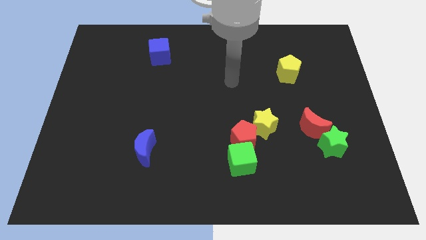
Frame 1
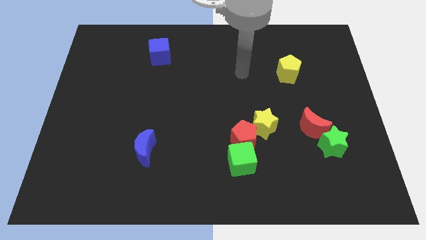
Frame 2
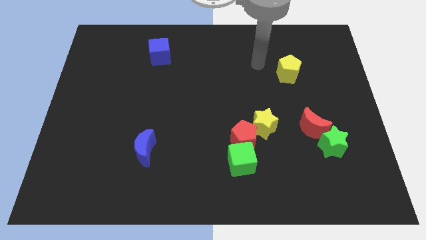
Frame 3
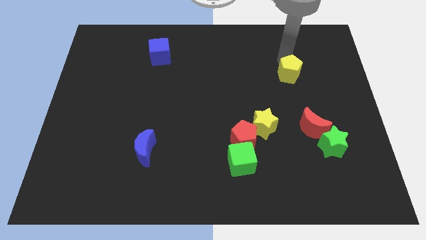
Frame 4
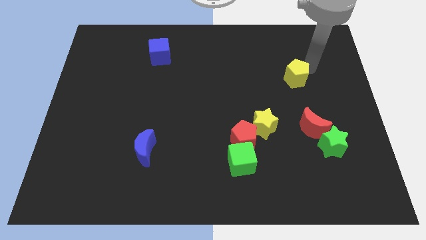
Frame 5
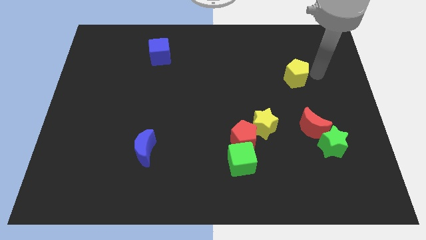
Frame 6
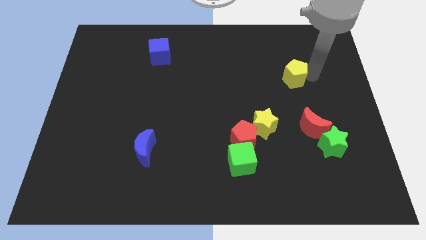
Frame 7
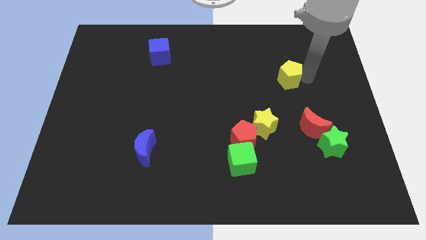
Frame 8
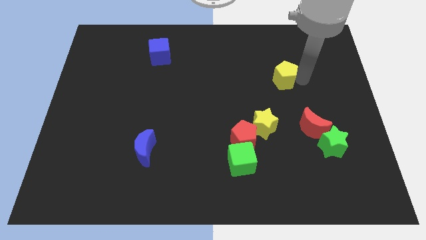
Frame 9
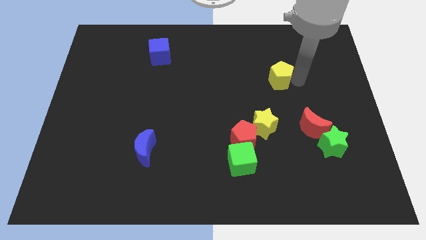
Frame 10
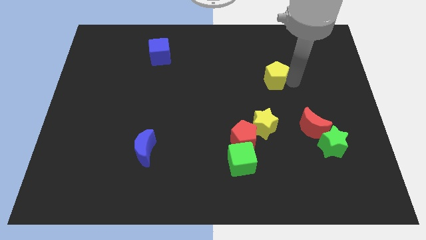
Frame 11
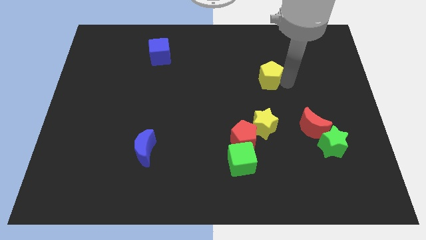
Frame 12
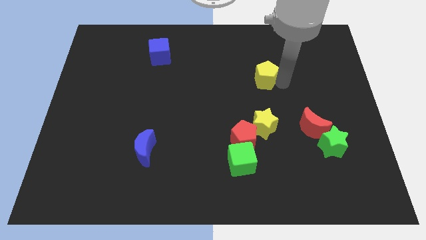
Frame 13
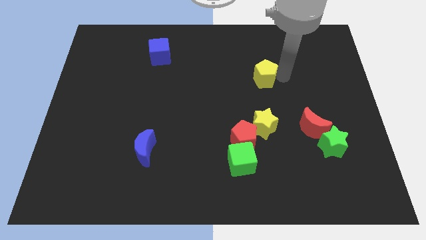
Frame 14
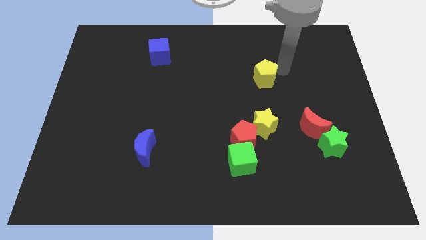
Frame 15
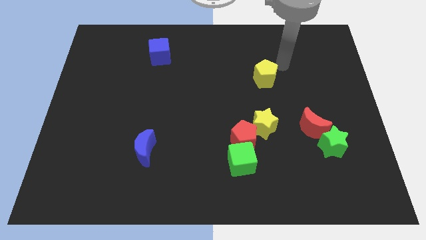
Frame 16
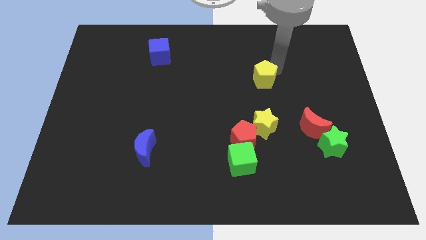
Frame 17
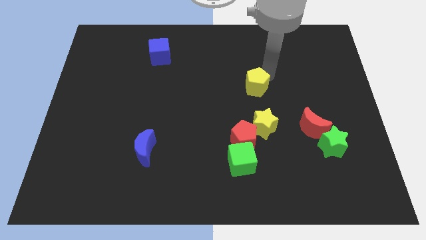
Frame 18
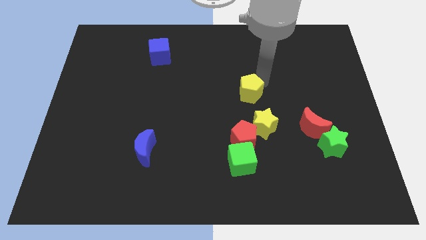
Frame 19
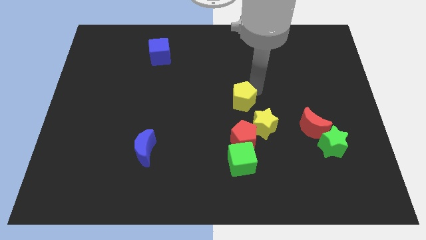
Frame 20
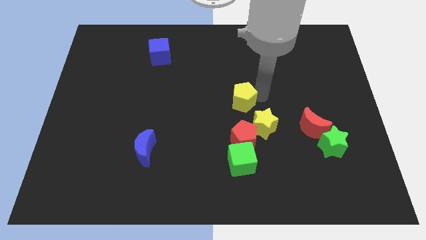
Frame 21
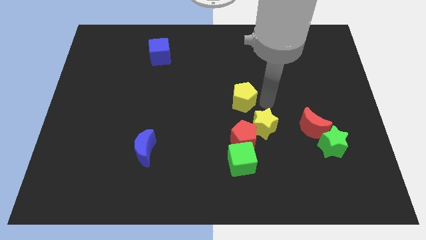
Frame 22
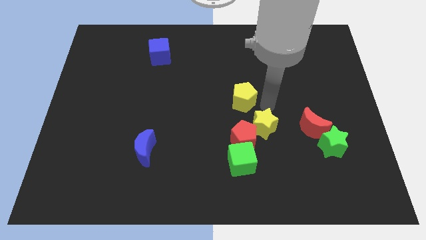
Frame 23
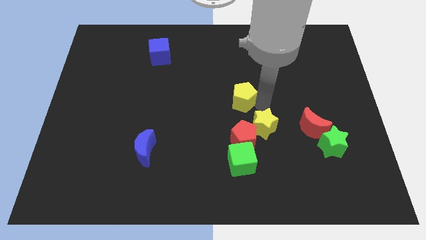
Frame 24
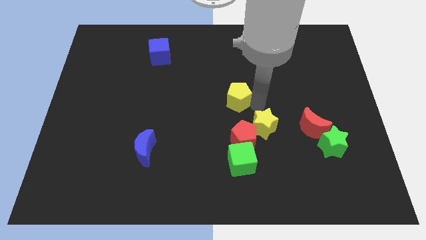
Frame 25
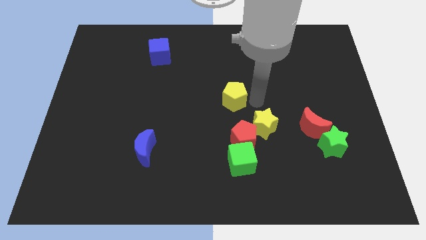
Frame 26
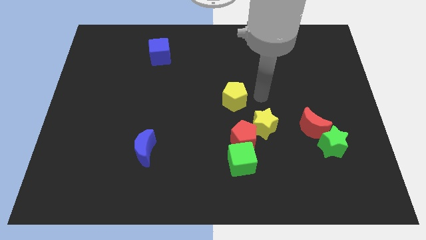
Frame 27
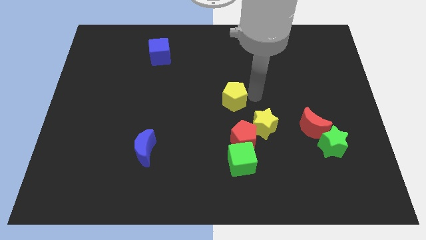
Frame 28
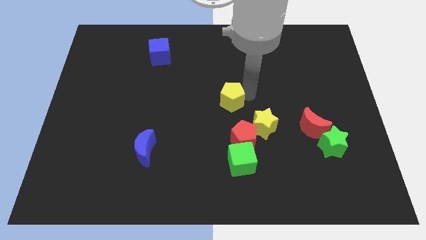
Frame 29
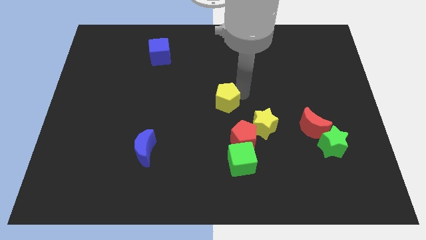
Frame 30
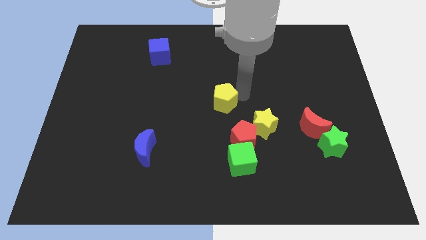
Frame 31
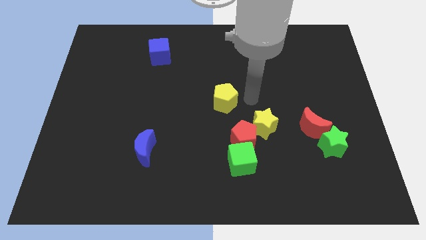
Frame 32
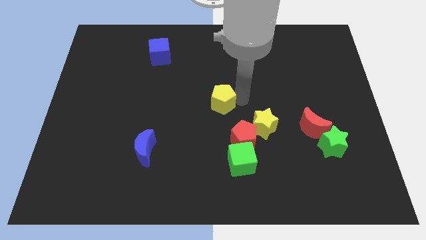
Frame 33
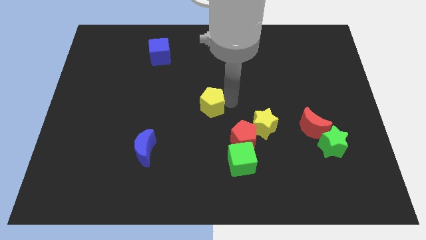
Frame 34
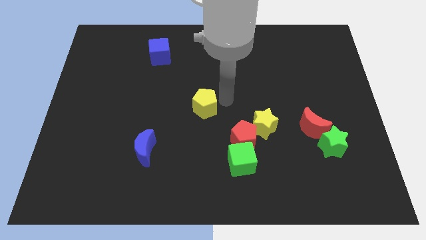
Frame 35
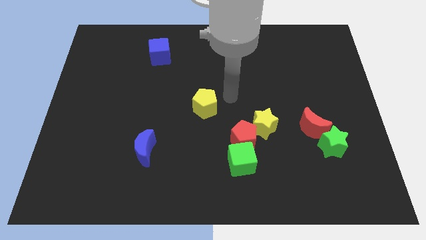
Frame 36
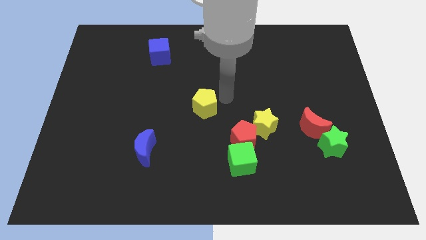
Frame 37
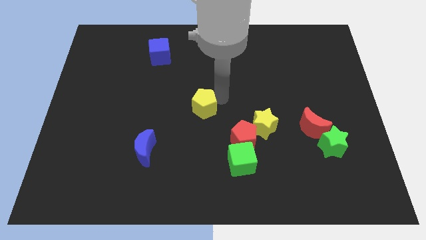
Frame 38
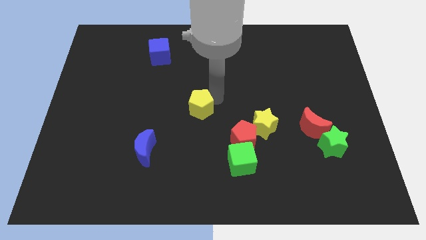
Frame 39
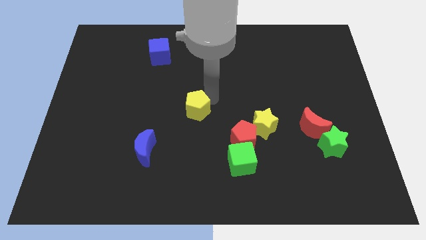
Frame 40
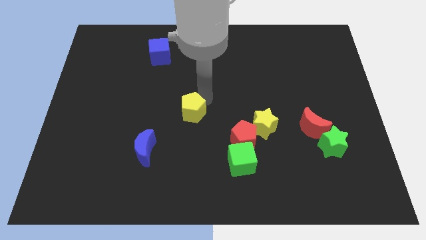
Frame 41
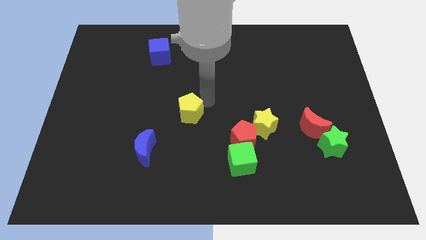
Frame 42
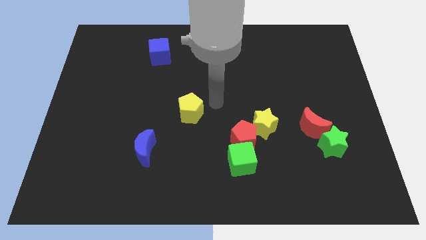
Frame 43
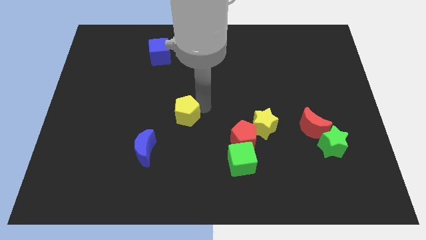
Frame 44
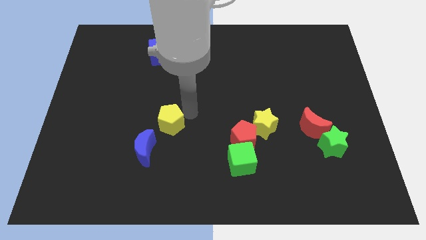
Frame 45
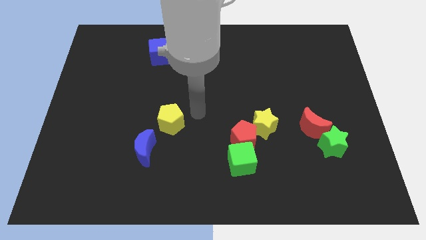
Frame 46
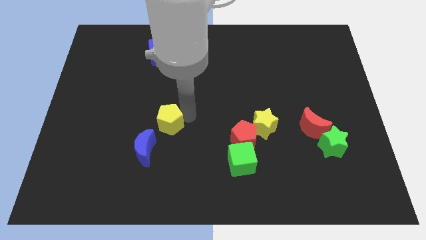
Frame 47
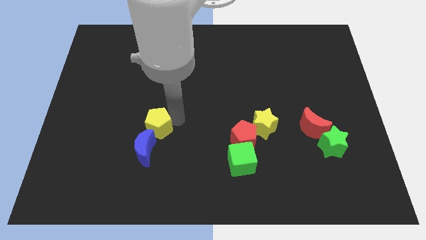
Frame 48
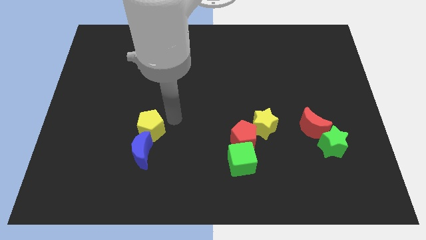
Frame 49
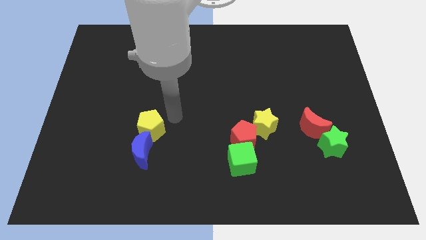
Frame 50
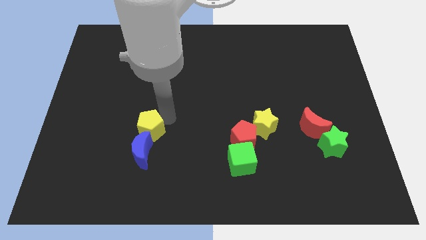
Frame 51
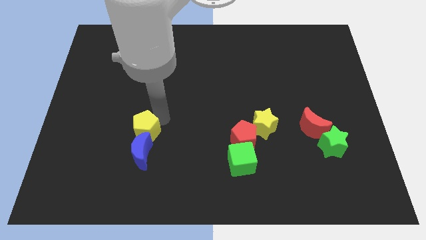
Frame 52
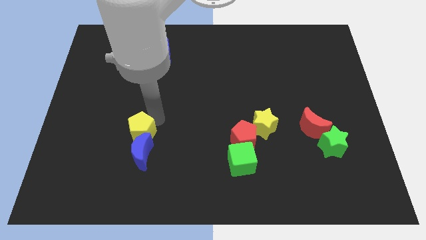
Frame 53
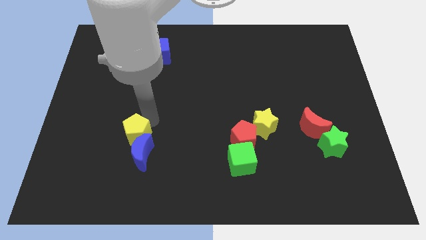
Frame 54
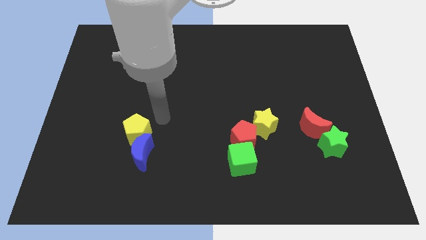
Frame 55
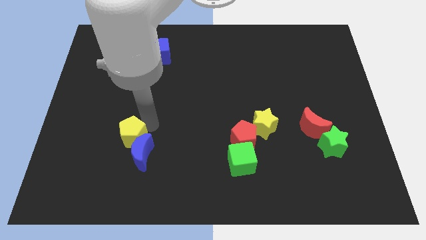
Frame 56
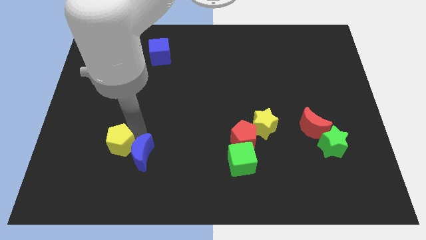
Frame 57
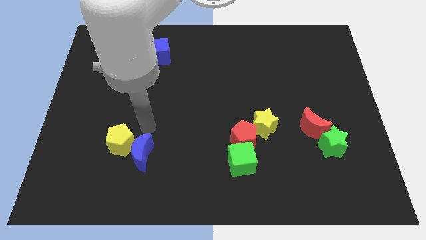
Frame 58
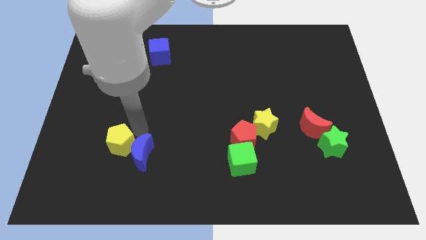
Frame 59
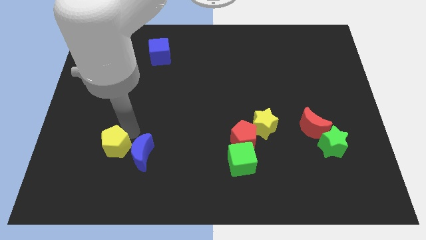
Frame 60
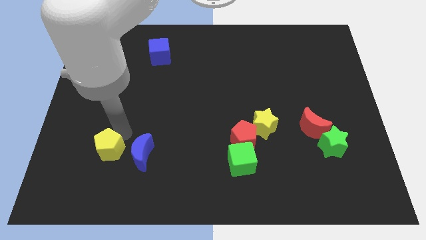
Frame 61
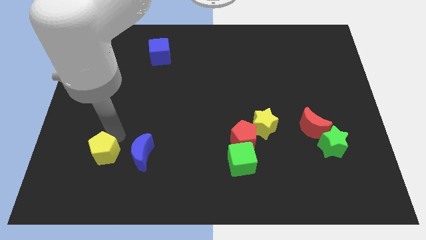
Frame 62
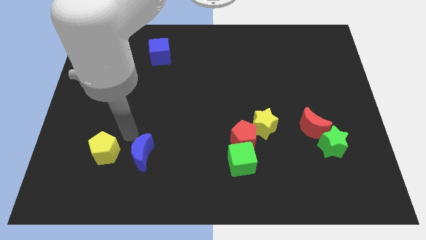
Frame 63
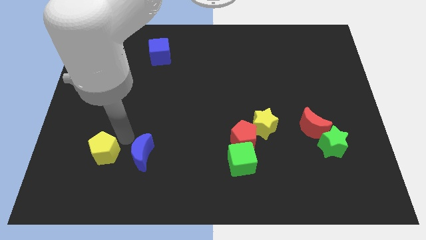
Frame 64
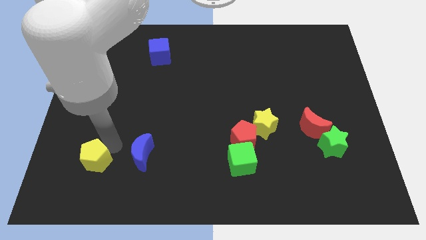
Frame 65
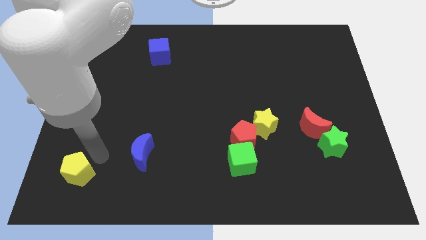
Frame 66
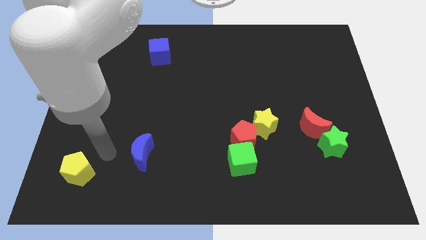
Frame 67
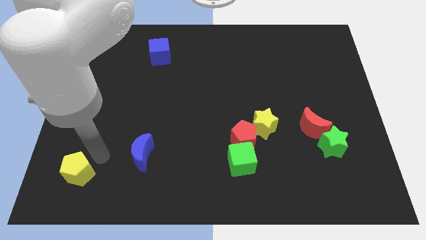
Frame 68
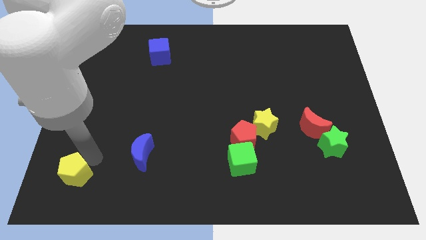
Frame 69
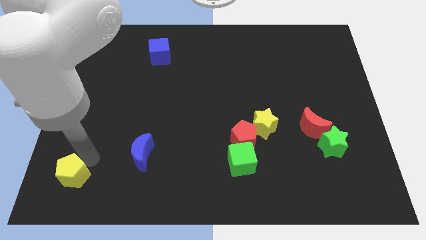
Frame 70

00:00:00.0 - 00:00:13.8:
put the yellow pentagon to the lower left corner
